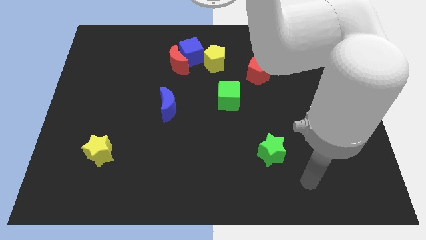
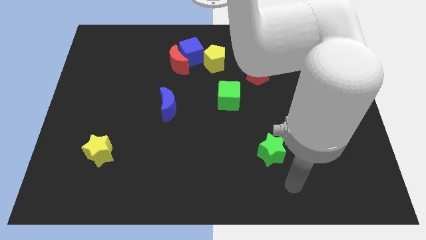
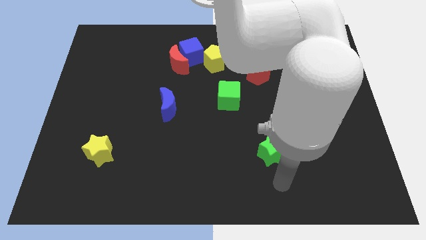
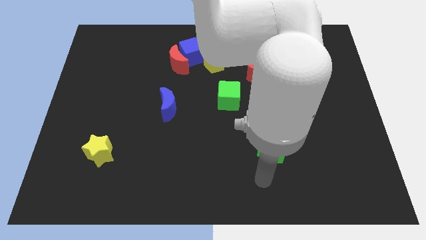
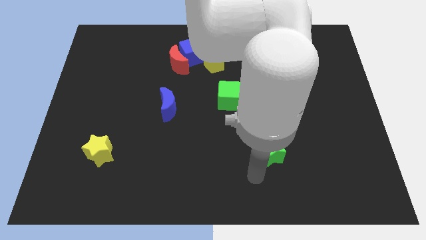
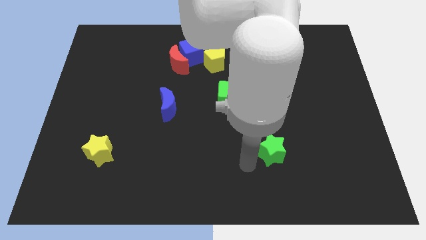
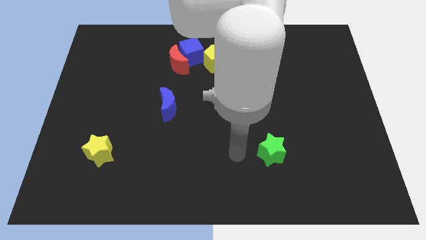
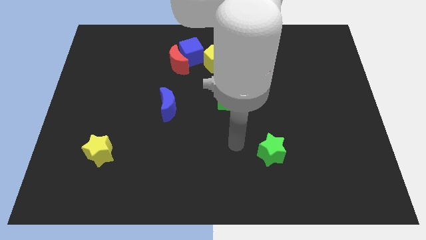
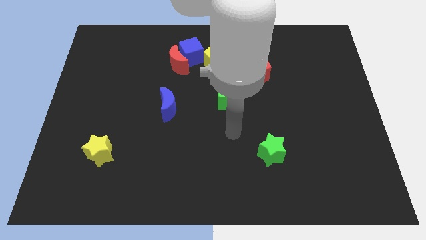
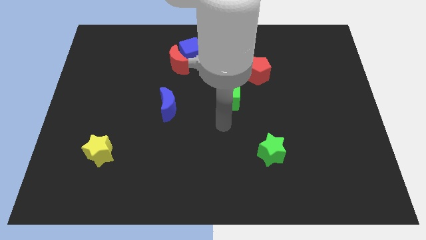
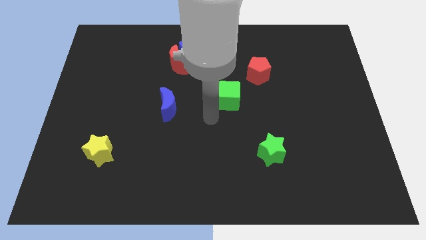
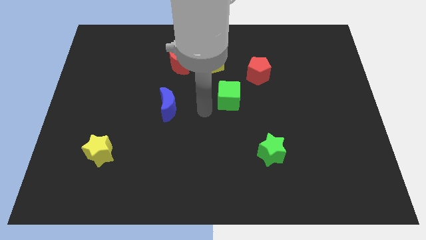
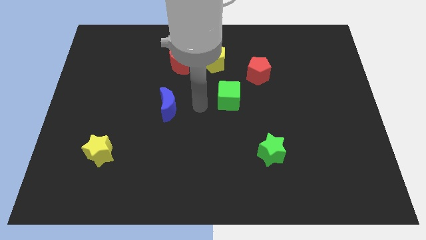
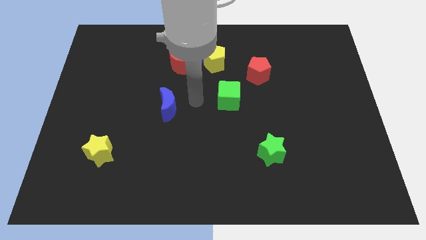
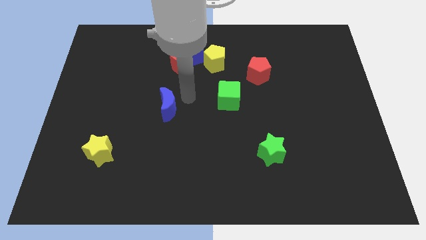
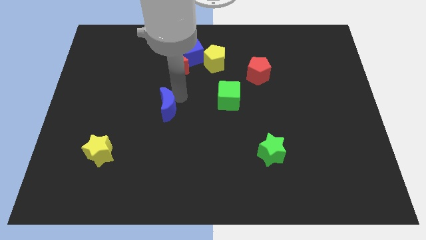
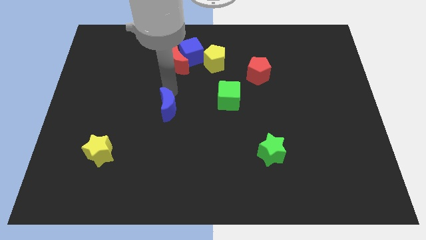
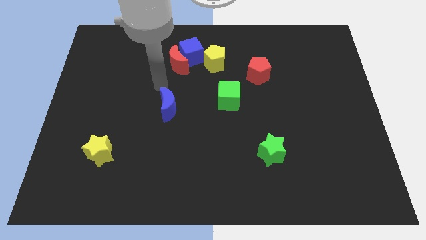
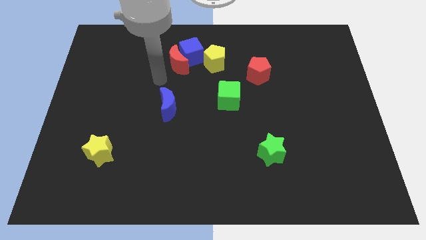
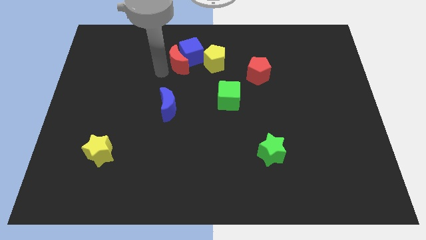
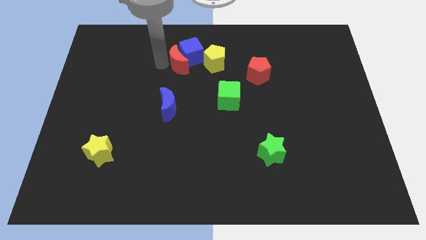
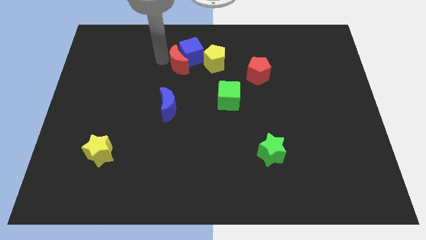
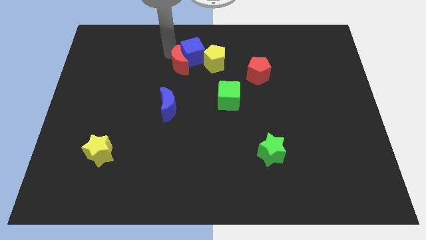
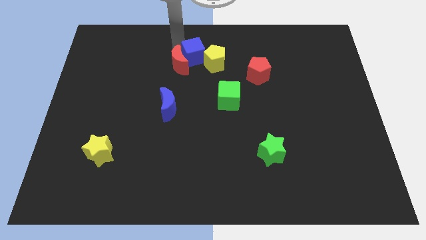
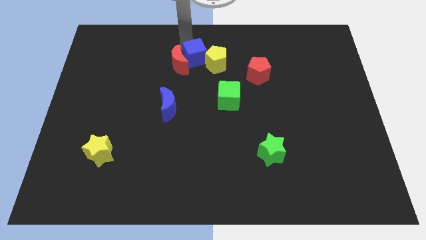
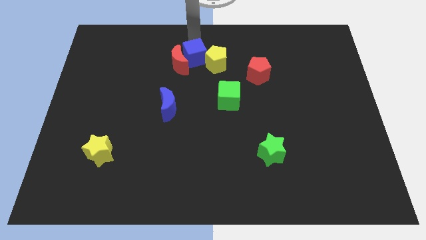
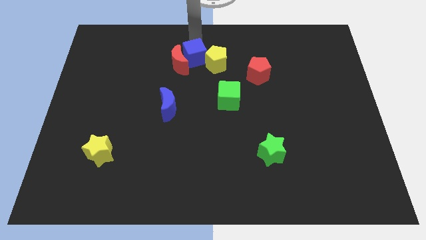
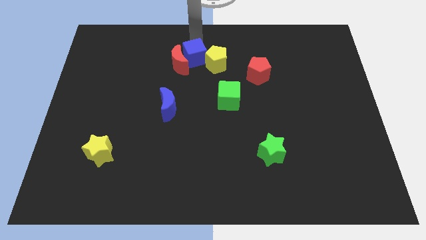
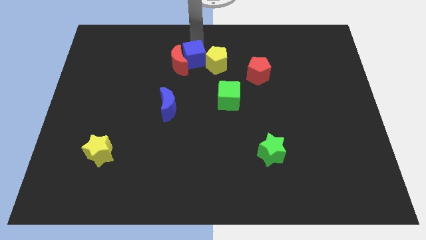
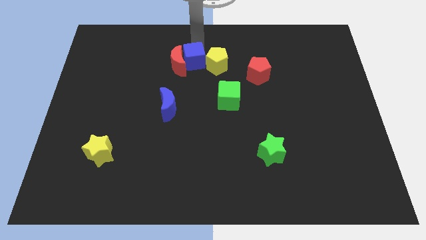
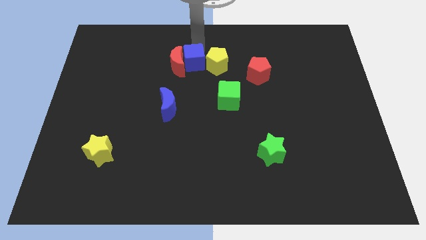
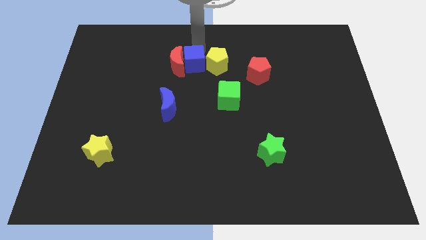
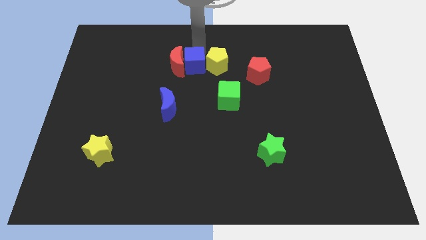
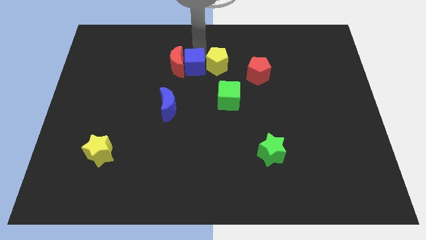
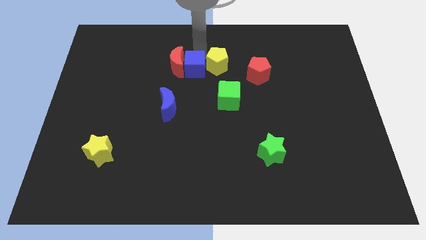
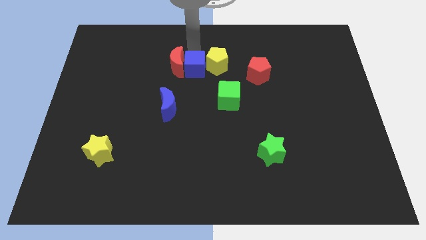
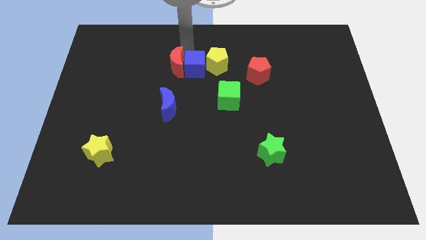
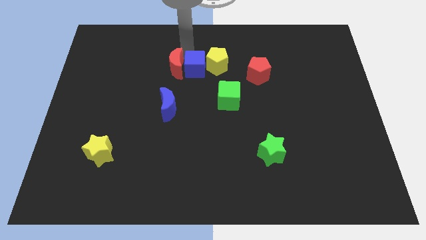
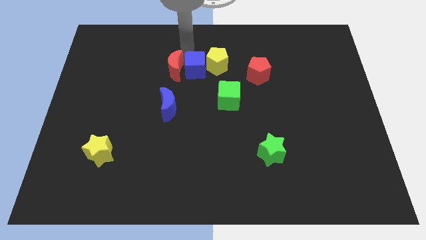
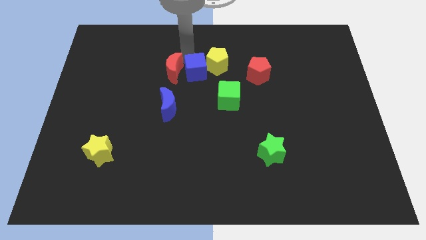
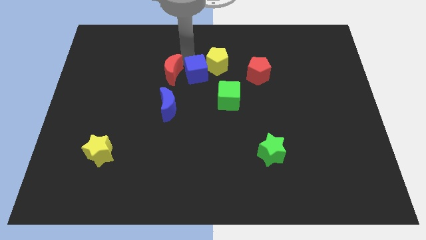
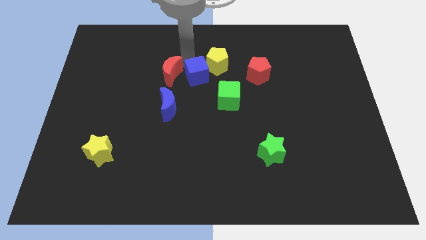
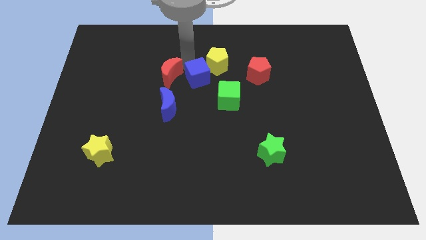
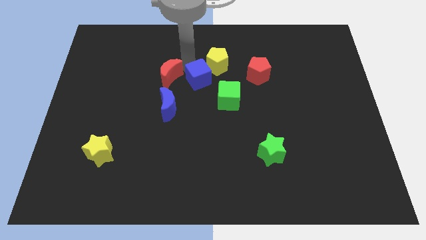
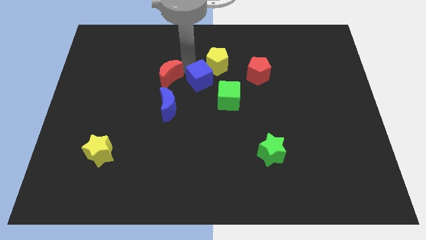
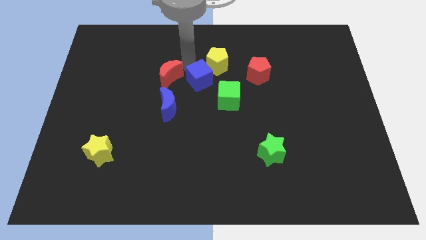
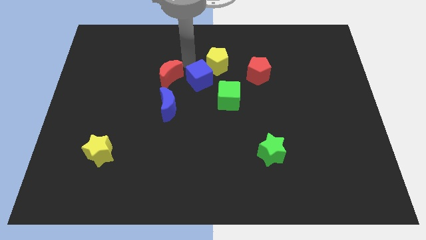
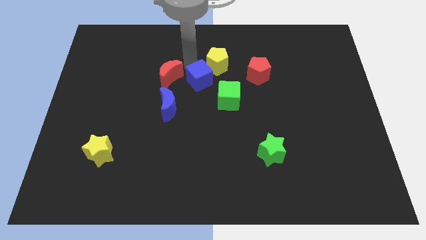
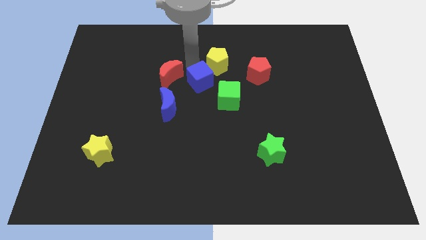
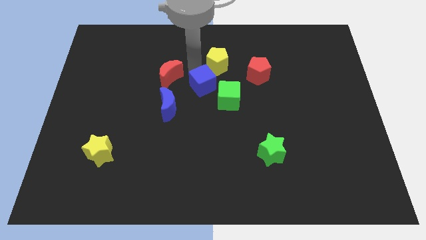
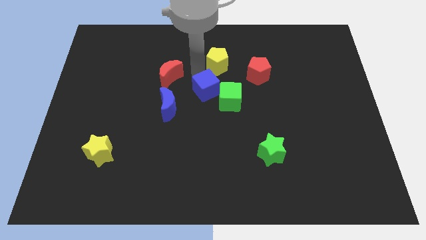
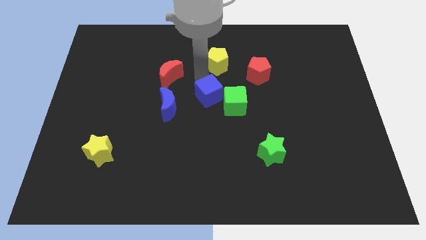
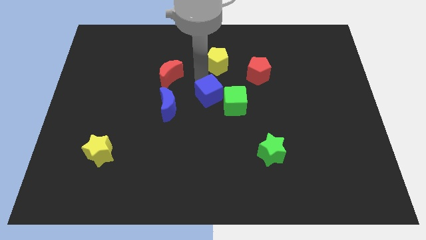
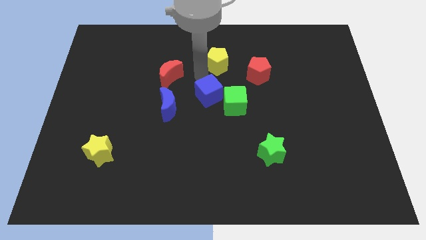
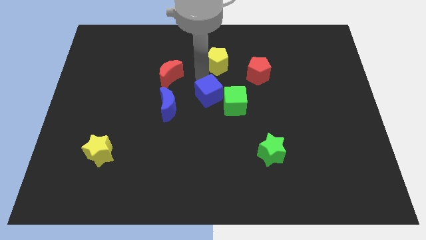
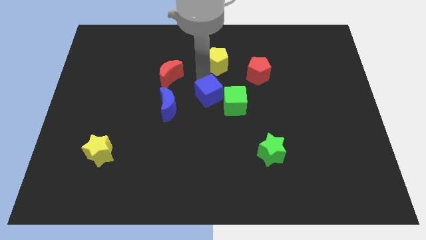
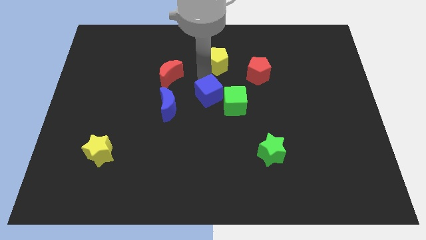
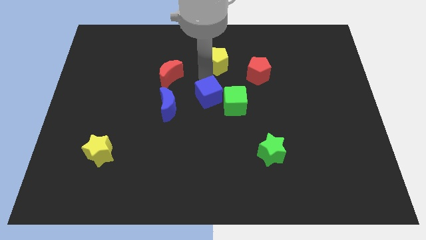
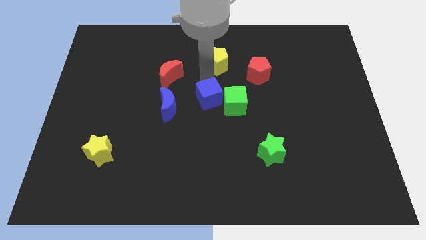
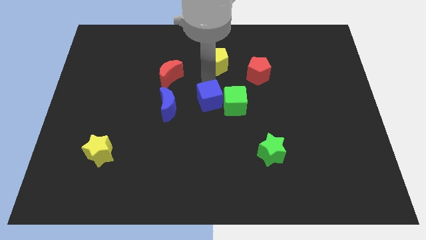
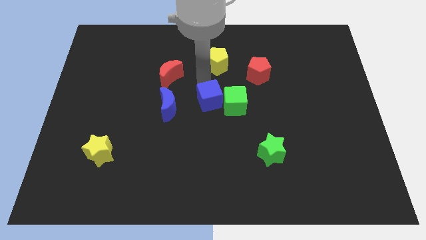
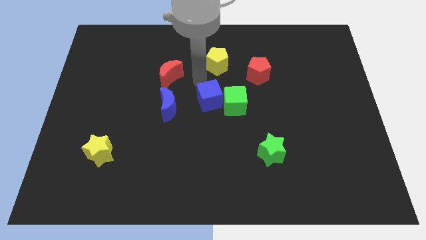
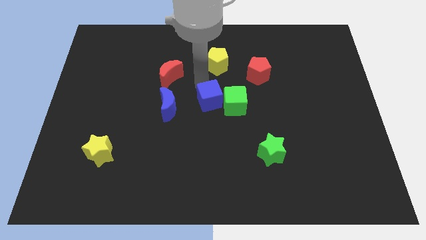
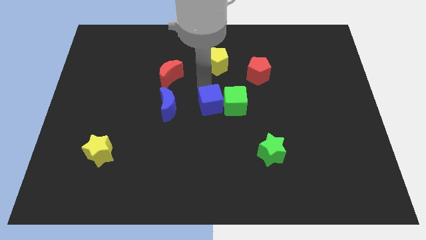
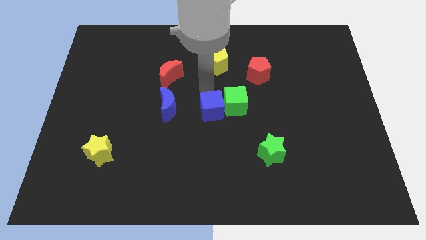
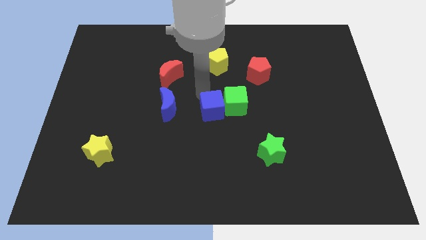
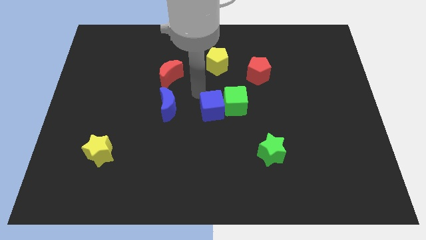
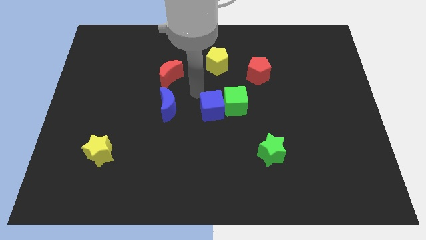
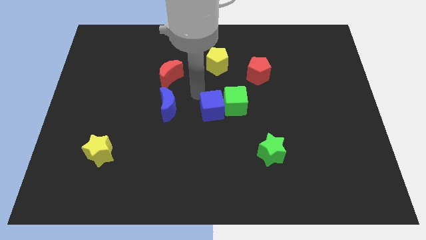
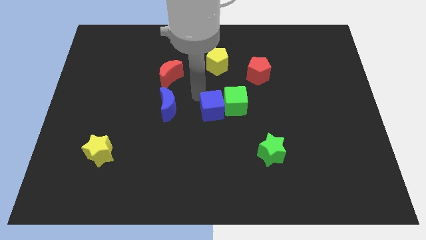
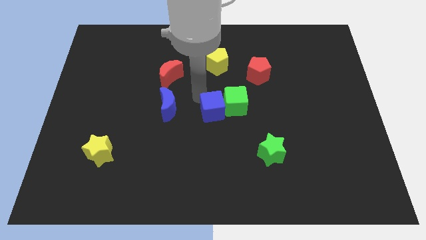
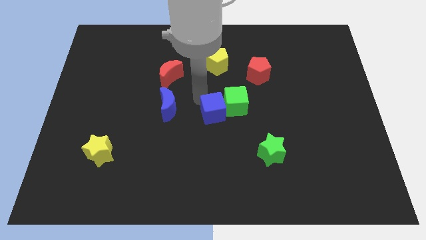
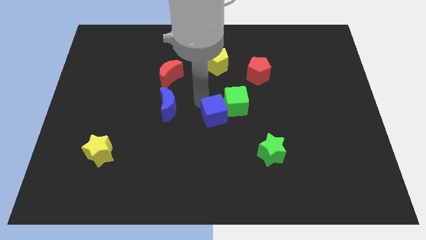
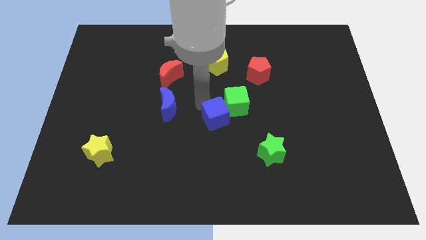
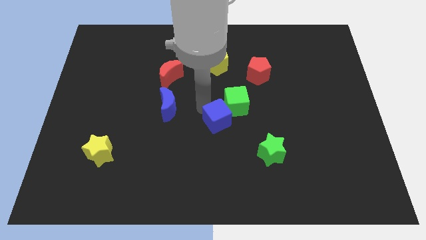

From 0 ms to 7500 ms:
put the blue cube below the green cube
